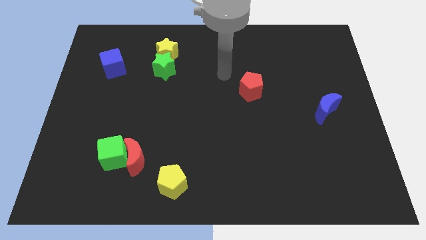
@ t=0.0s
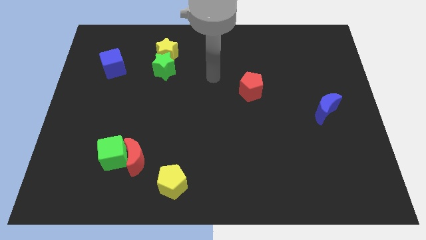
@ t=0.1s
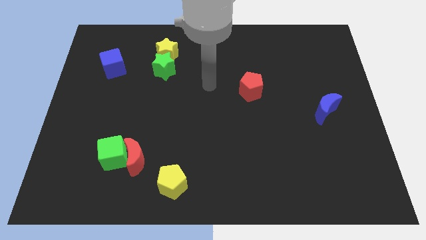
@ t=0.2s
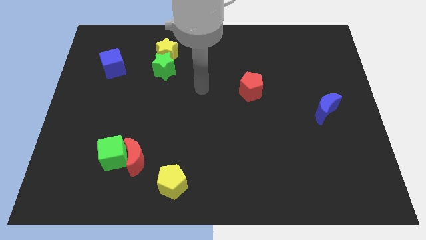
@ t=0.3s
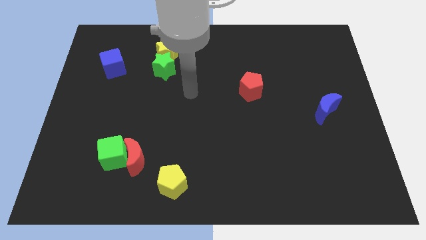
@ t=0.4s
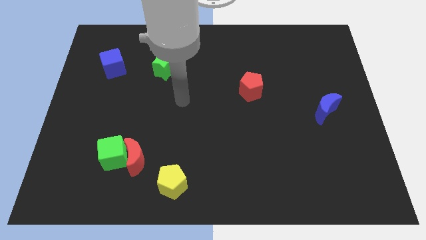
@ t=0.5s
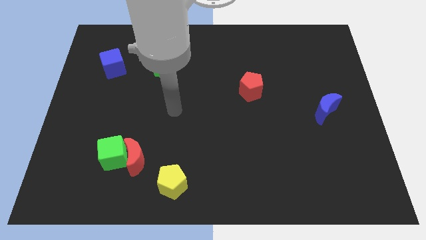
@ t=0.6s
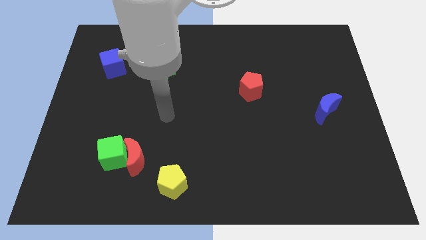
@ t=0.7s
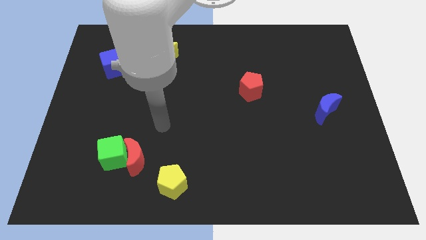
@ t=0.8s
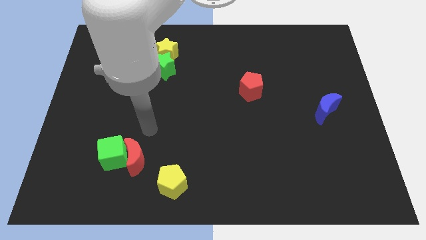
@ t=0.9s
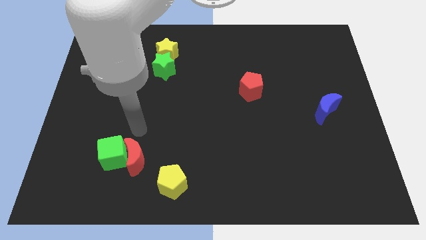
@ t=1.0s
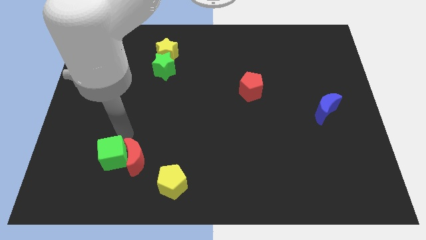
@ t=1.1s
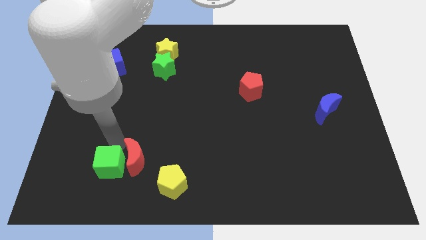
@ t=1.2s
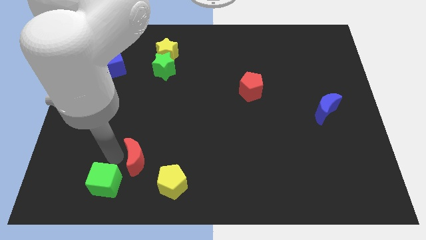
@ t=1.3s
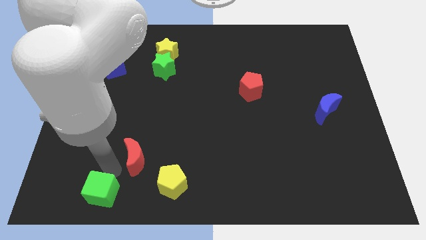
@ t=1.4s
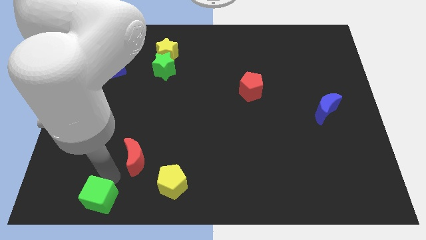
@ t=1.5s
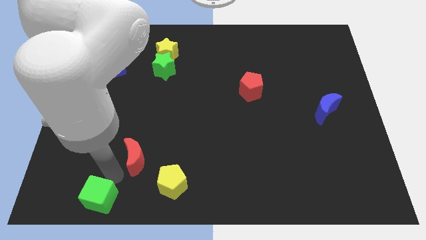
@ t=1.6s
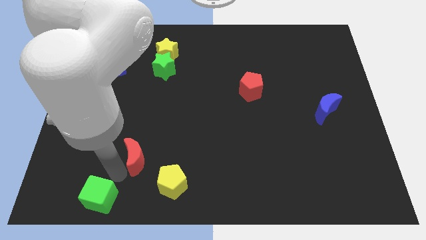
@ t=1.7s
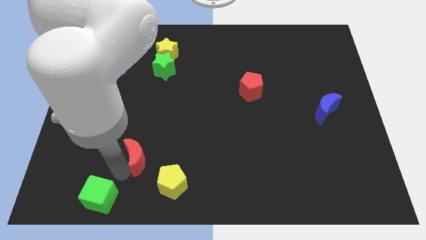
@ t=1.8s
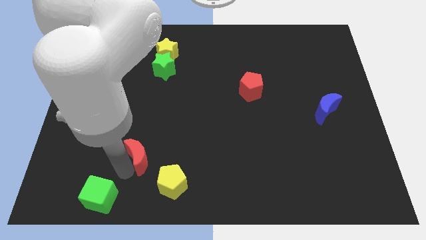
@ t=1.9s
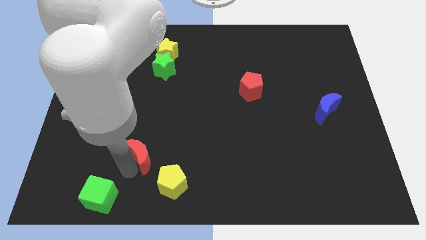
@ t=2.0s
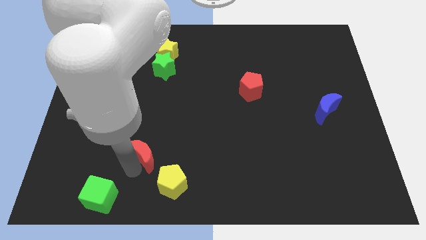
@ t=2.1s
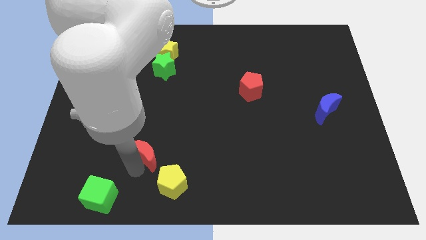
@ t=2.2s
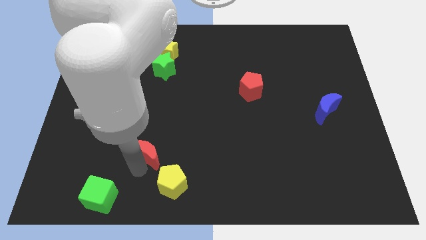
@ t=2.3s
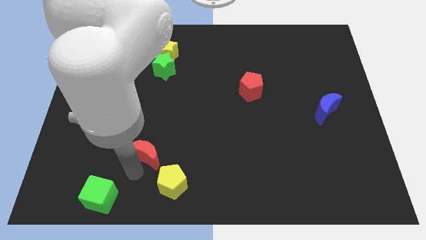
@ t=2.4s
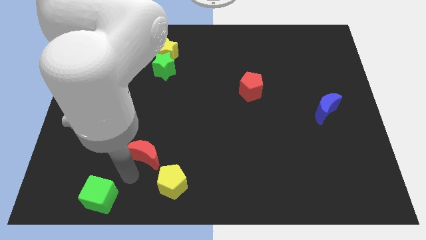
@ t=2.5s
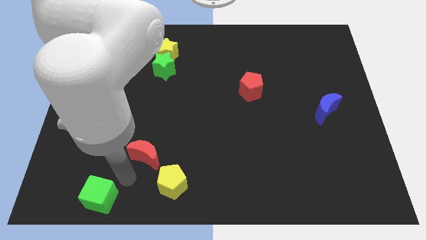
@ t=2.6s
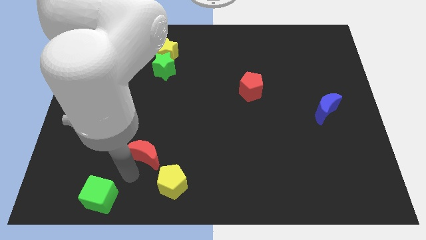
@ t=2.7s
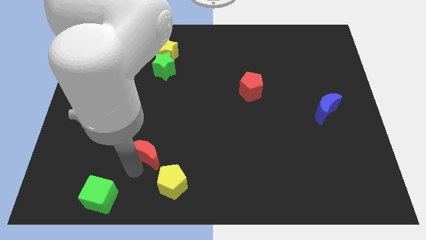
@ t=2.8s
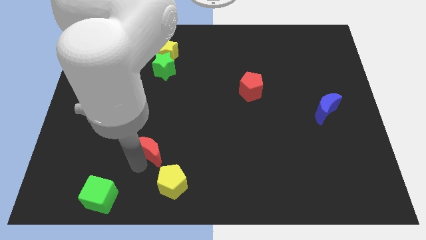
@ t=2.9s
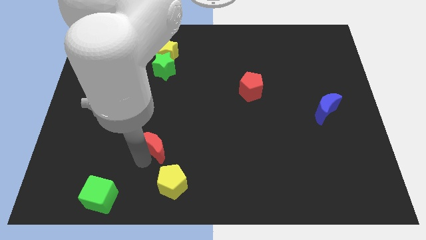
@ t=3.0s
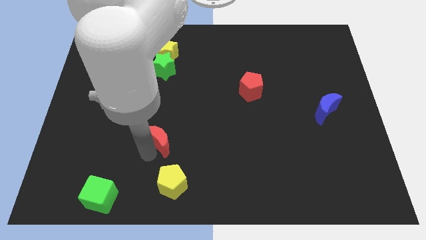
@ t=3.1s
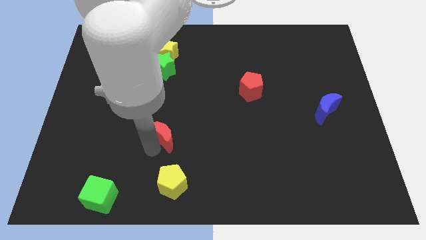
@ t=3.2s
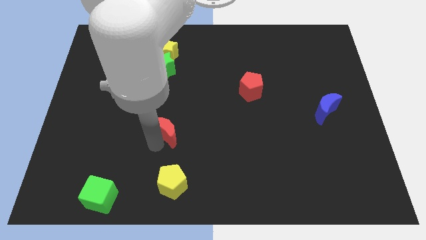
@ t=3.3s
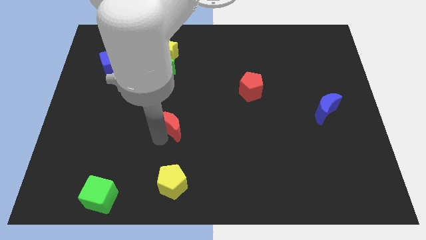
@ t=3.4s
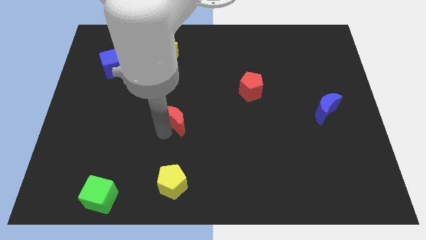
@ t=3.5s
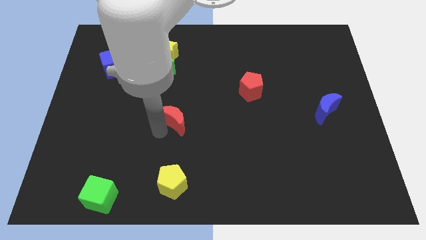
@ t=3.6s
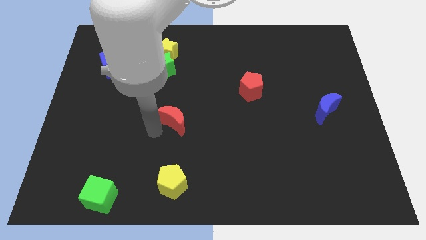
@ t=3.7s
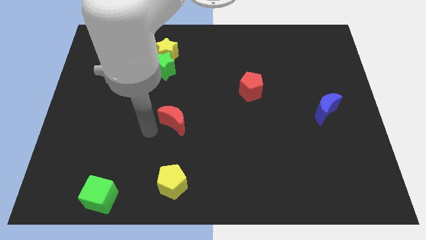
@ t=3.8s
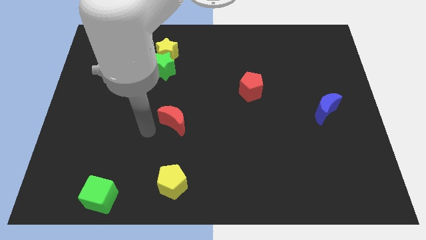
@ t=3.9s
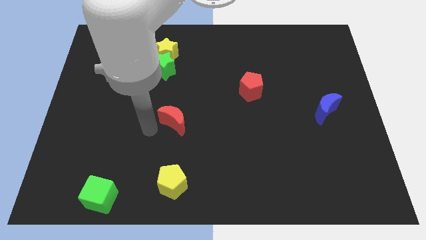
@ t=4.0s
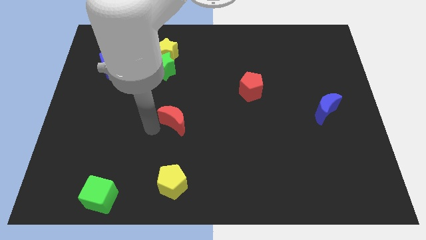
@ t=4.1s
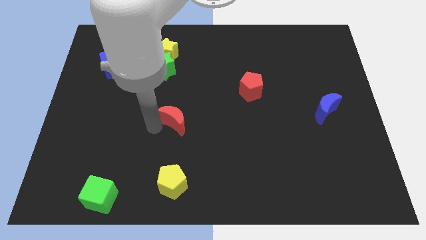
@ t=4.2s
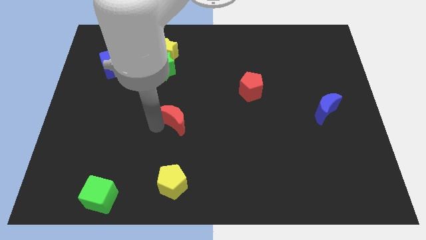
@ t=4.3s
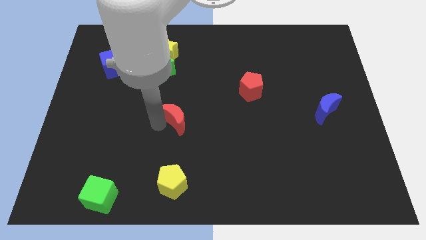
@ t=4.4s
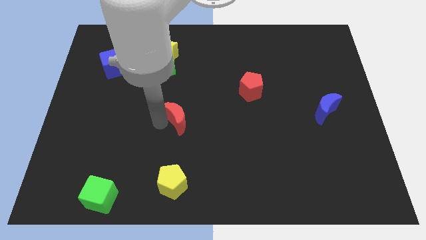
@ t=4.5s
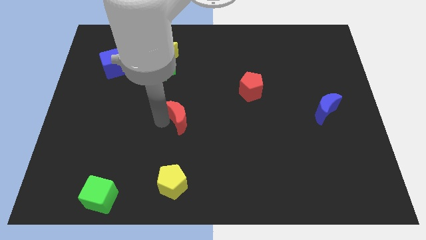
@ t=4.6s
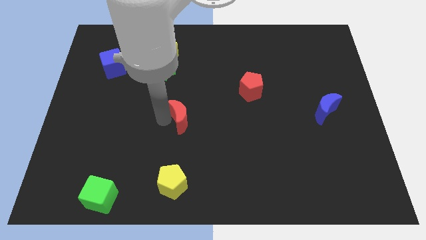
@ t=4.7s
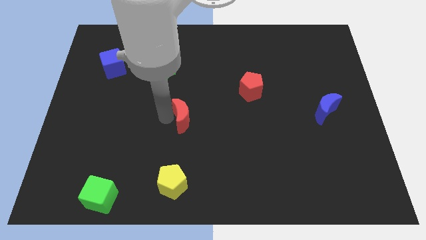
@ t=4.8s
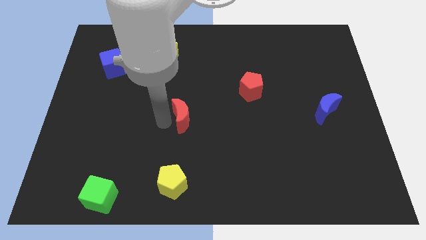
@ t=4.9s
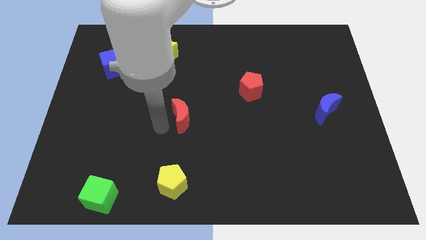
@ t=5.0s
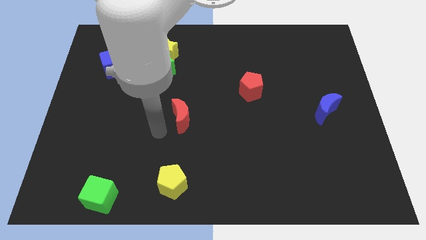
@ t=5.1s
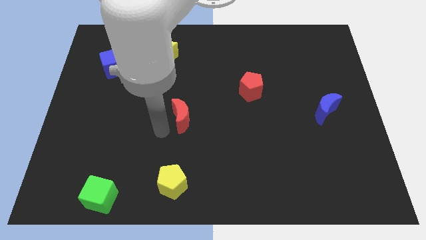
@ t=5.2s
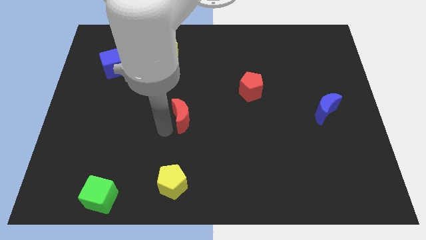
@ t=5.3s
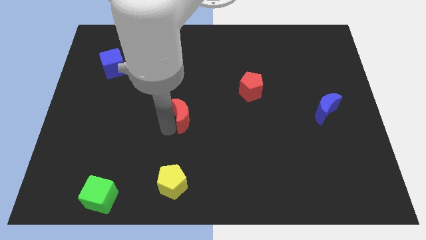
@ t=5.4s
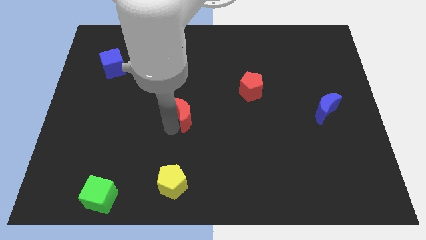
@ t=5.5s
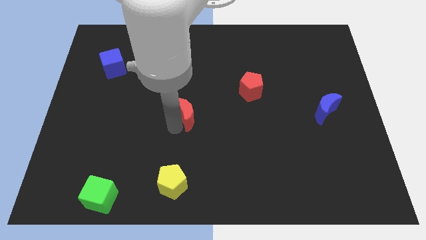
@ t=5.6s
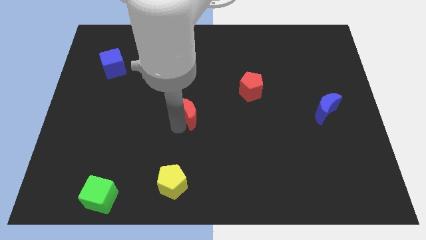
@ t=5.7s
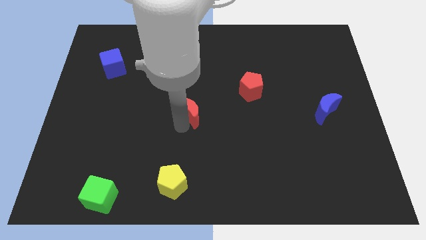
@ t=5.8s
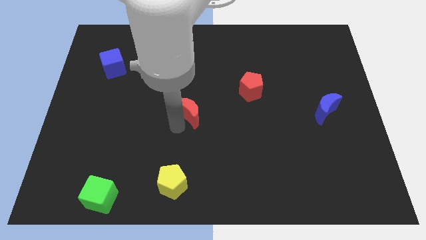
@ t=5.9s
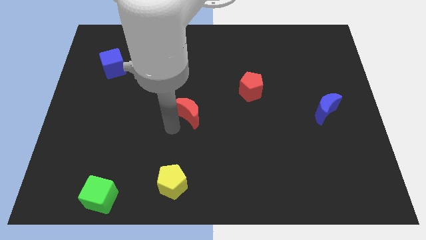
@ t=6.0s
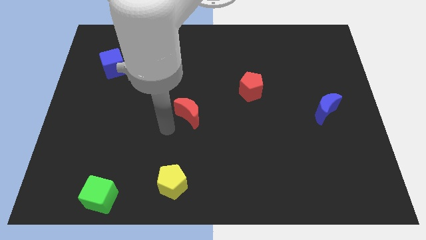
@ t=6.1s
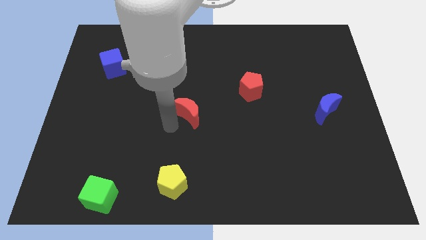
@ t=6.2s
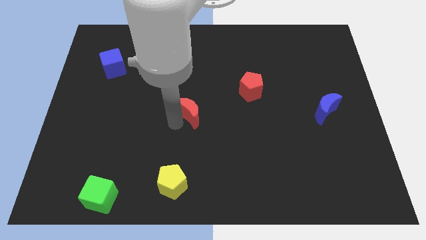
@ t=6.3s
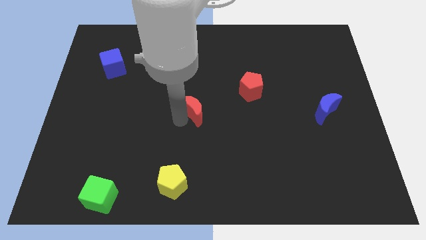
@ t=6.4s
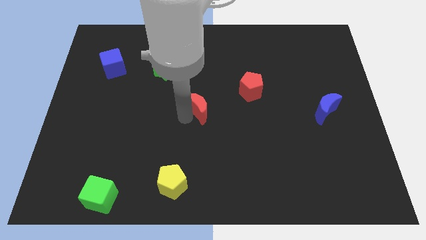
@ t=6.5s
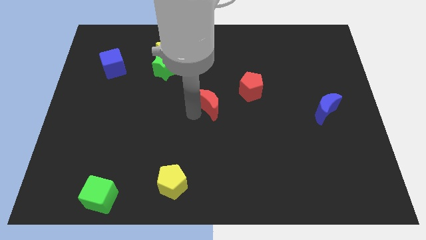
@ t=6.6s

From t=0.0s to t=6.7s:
move the red moon diagonally upwards and to the right

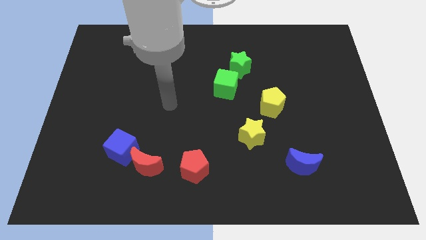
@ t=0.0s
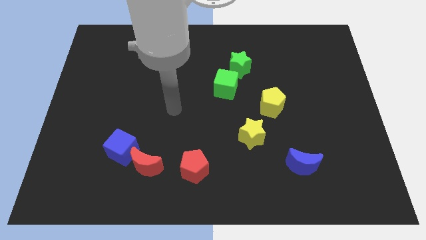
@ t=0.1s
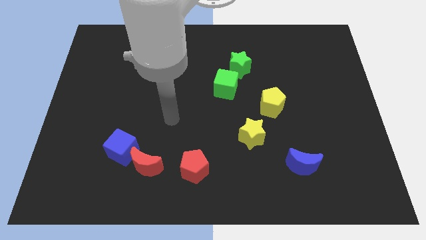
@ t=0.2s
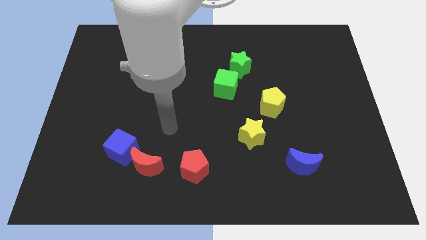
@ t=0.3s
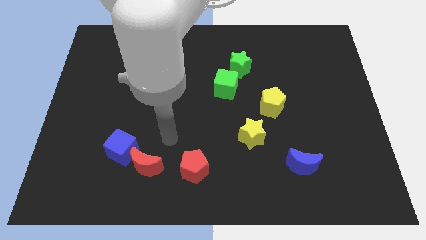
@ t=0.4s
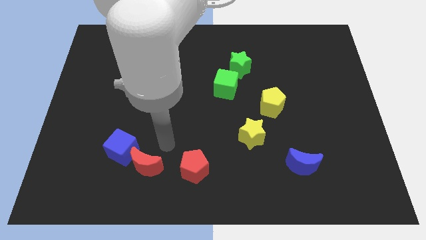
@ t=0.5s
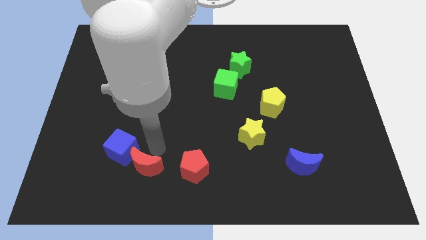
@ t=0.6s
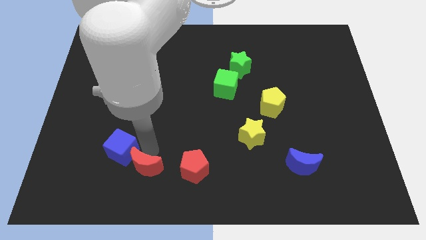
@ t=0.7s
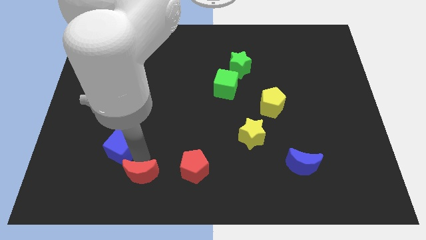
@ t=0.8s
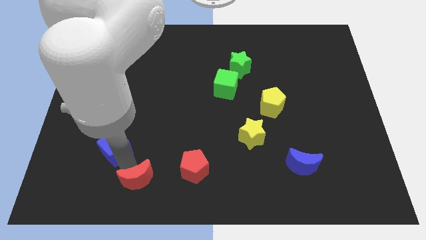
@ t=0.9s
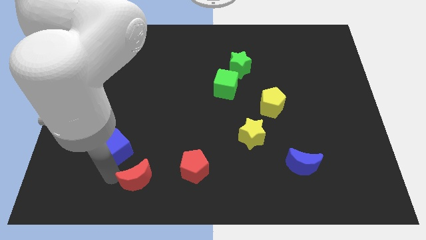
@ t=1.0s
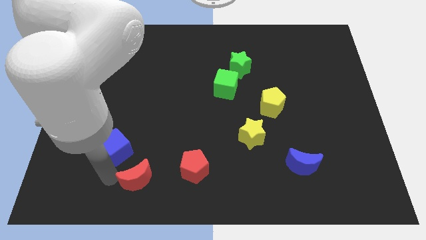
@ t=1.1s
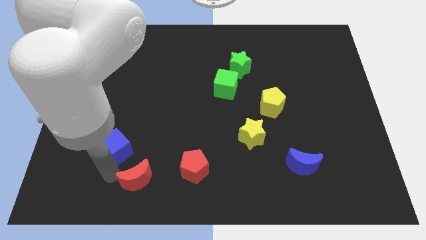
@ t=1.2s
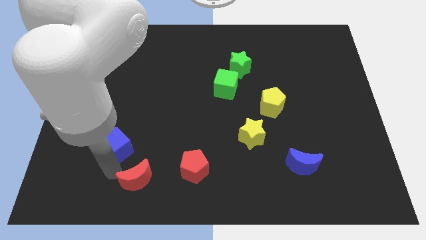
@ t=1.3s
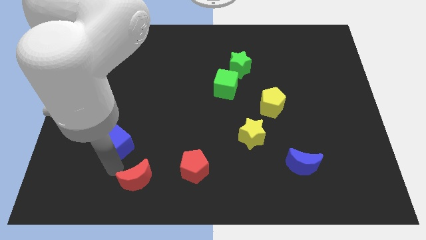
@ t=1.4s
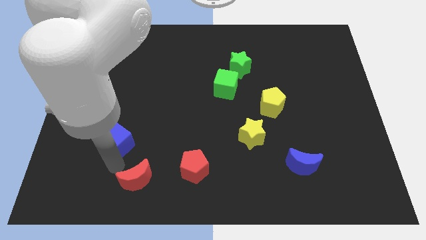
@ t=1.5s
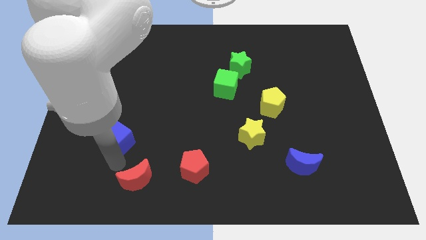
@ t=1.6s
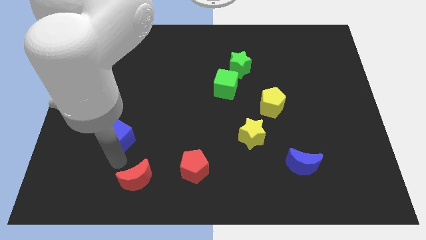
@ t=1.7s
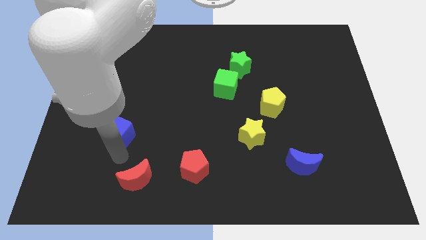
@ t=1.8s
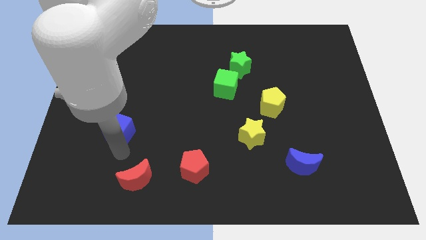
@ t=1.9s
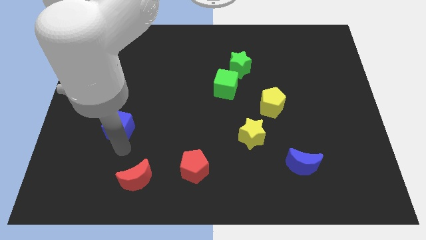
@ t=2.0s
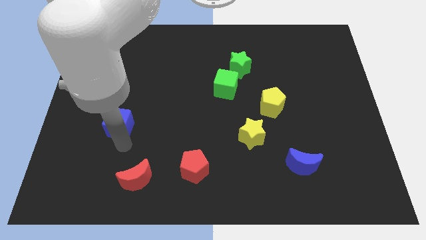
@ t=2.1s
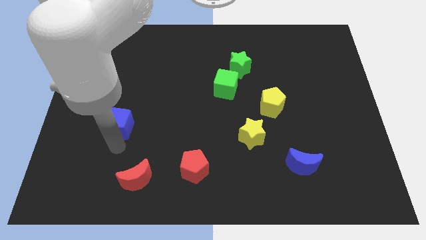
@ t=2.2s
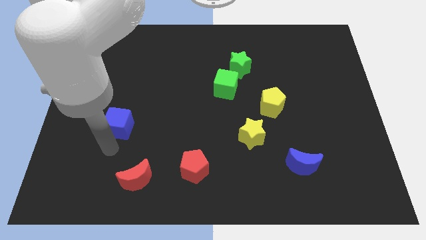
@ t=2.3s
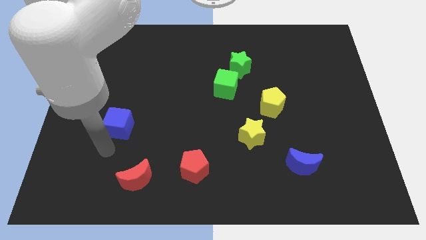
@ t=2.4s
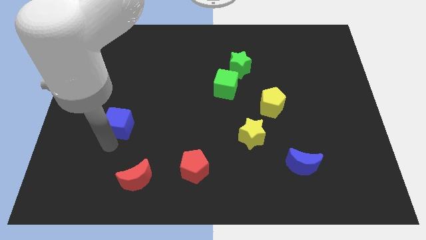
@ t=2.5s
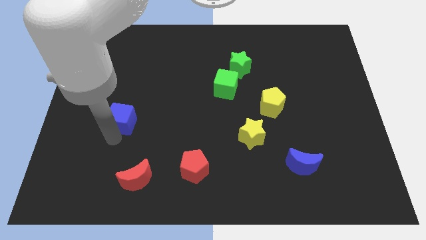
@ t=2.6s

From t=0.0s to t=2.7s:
push the blue cube a bit upwards
